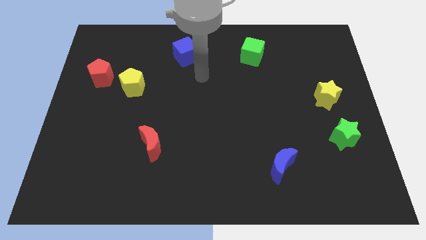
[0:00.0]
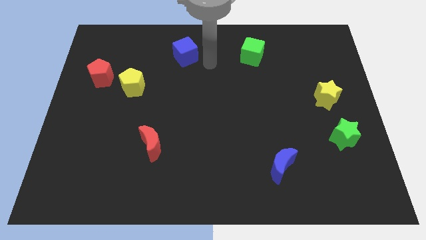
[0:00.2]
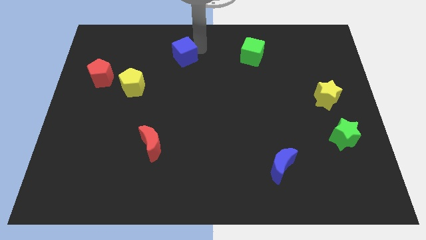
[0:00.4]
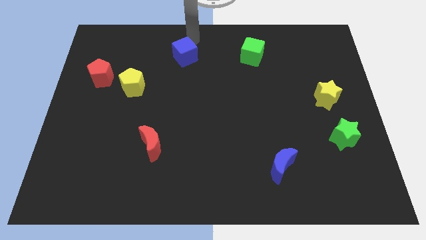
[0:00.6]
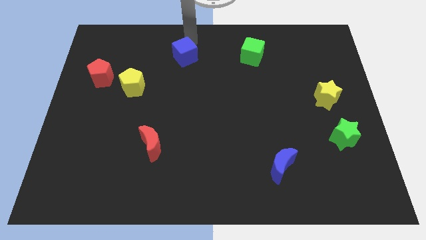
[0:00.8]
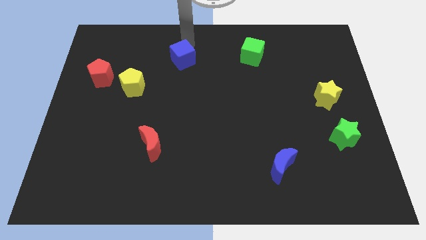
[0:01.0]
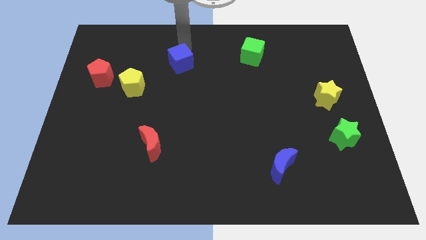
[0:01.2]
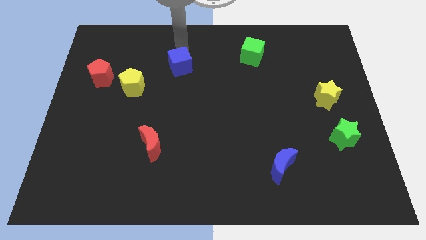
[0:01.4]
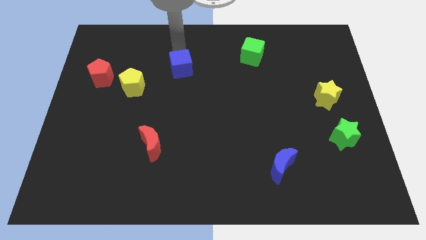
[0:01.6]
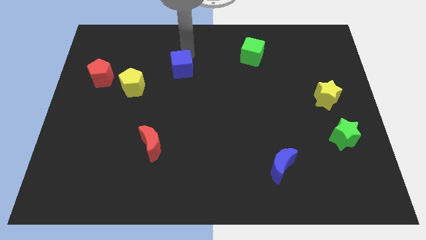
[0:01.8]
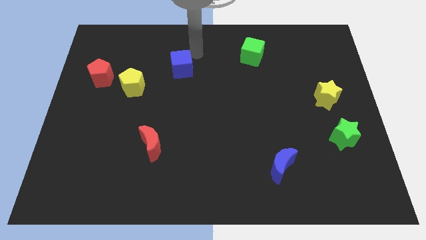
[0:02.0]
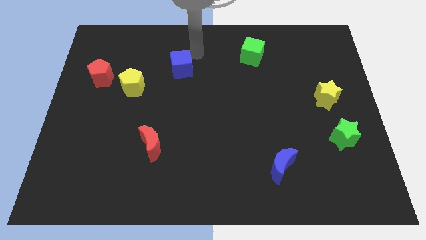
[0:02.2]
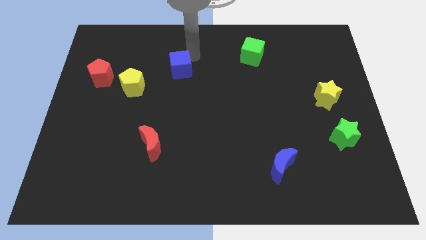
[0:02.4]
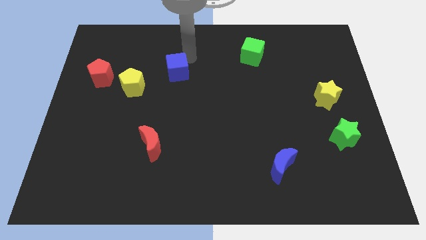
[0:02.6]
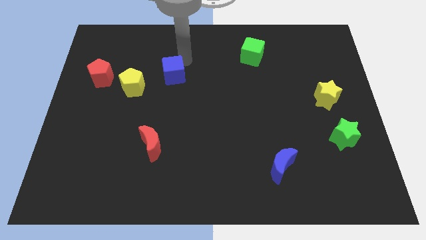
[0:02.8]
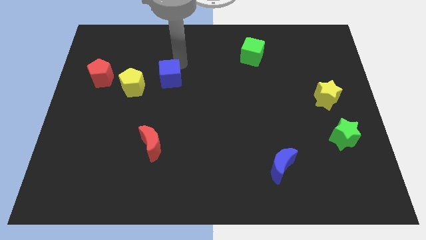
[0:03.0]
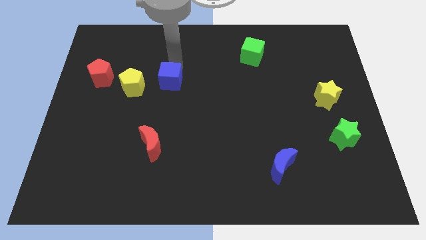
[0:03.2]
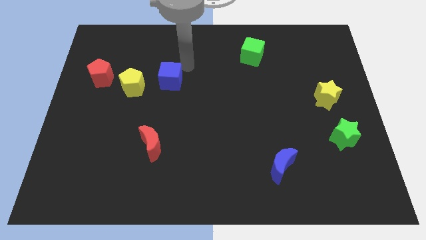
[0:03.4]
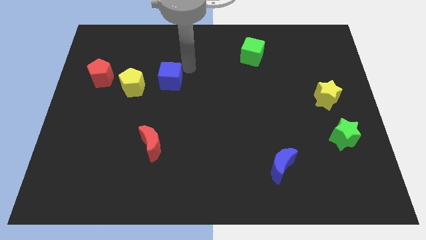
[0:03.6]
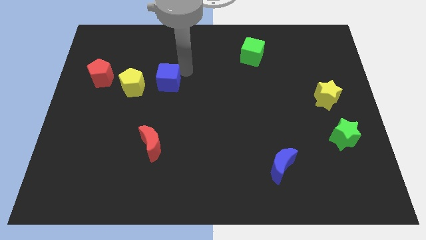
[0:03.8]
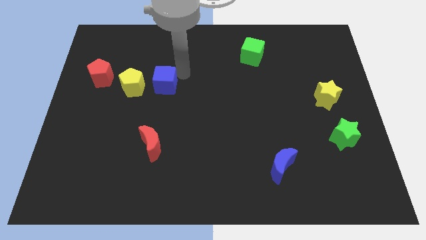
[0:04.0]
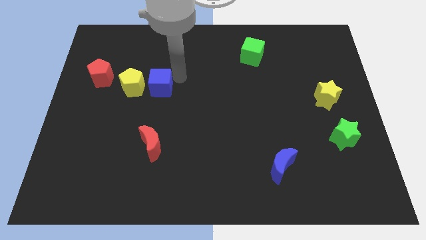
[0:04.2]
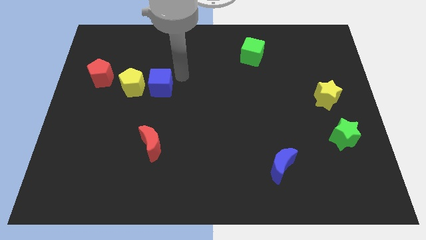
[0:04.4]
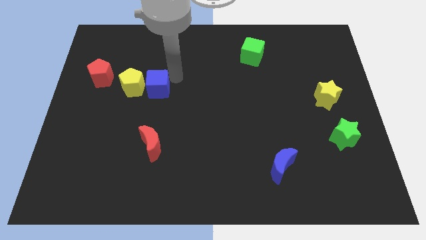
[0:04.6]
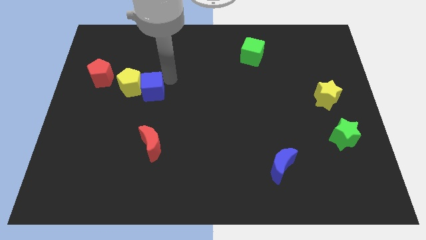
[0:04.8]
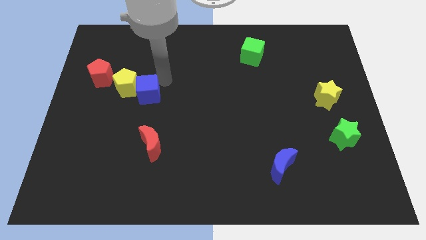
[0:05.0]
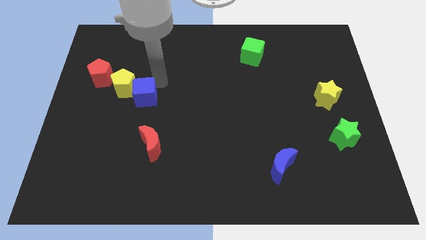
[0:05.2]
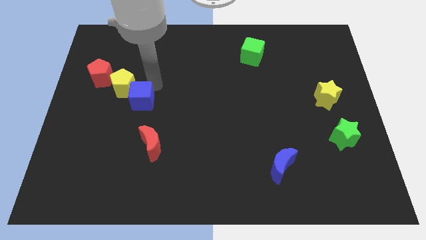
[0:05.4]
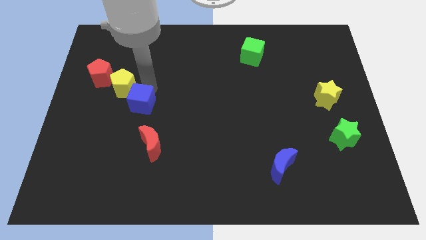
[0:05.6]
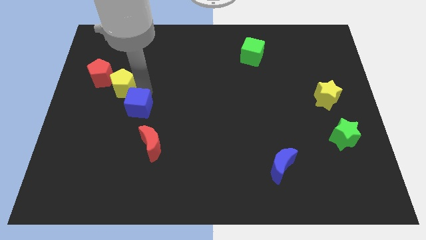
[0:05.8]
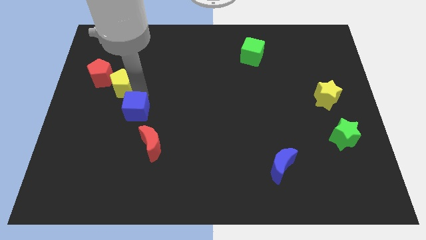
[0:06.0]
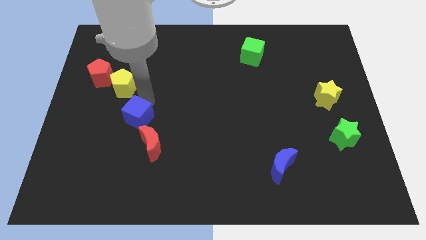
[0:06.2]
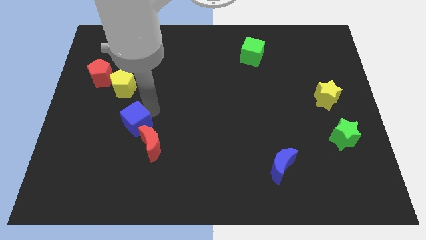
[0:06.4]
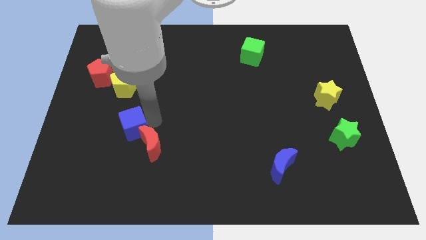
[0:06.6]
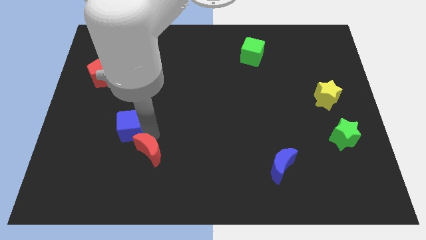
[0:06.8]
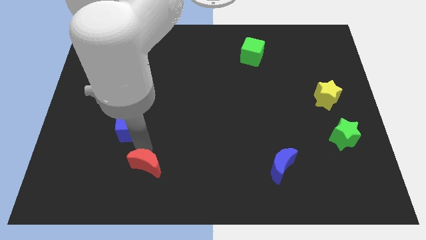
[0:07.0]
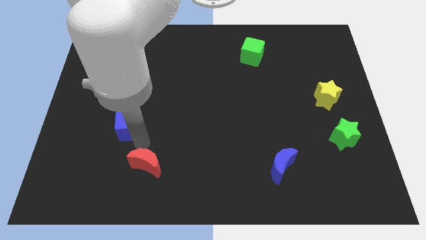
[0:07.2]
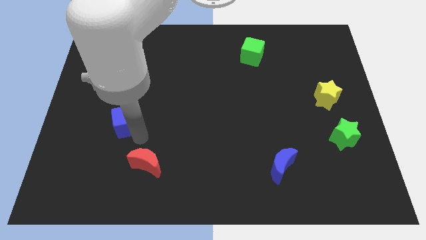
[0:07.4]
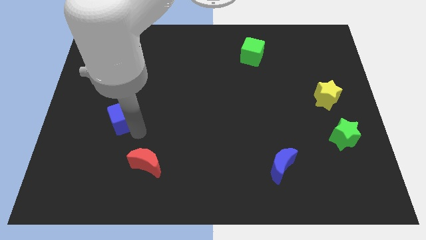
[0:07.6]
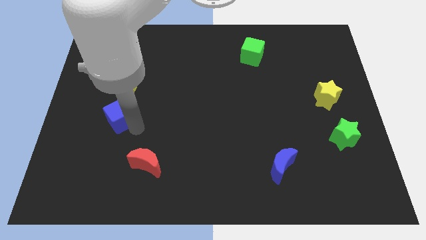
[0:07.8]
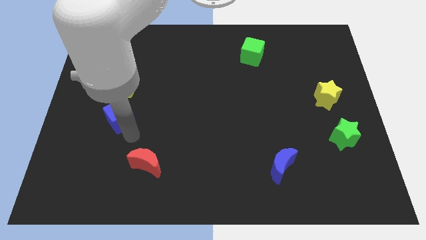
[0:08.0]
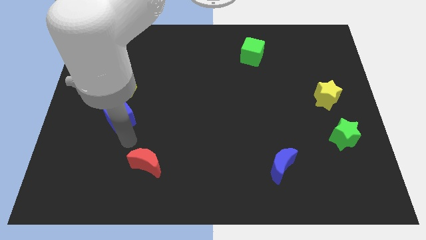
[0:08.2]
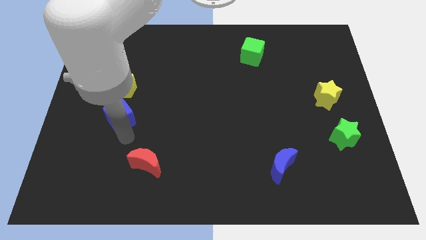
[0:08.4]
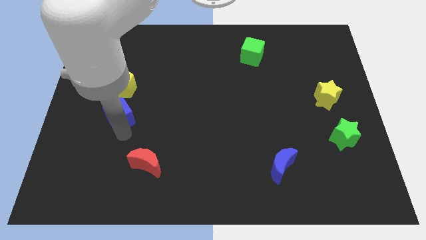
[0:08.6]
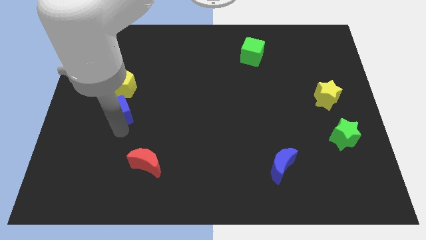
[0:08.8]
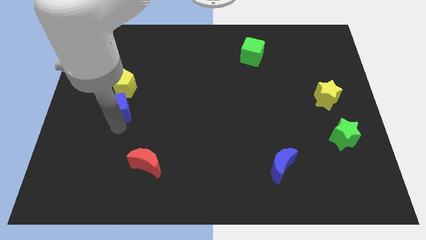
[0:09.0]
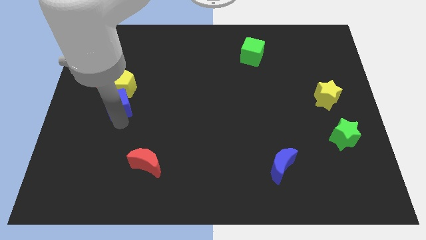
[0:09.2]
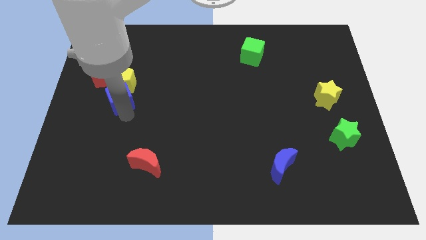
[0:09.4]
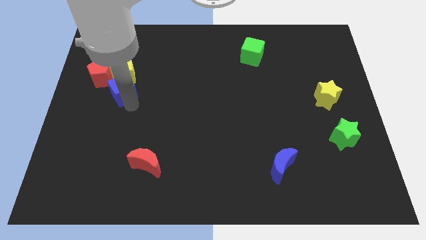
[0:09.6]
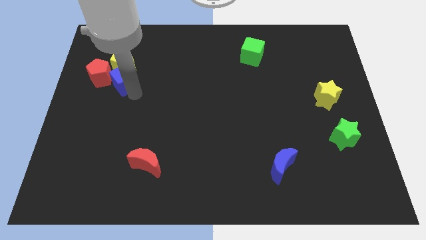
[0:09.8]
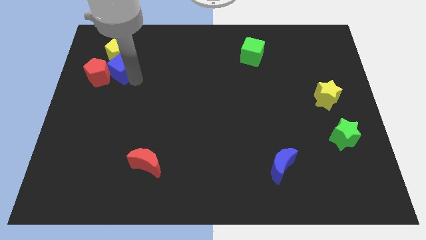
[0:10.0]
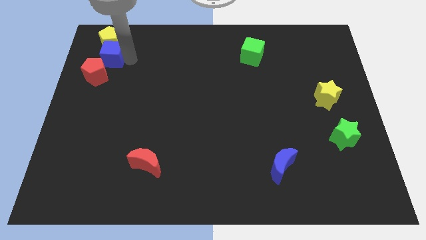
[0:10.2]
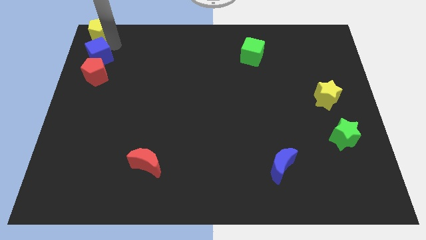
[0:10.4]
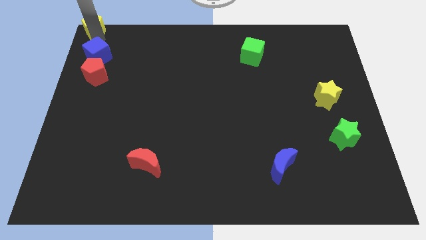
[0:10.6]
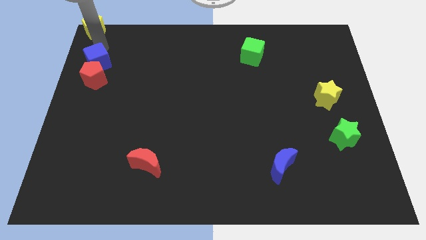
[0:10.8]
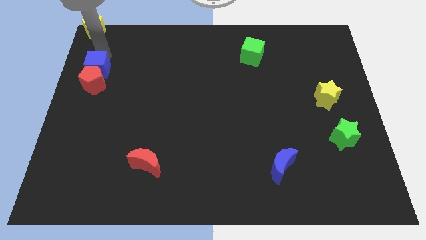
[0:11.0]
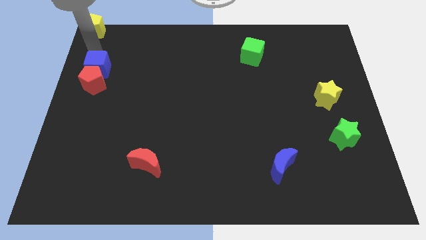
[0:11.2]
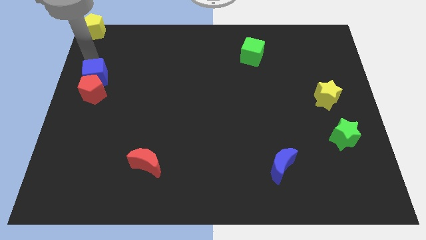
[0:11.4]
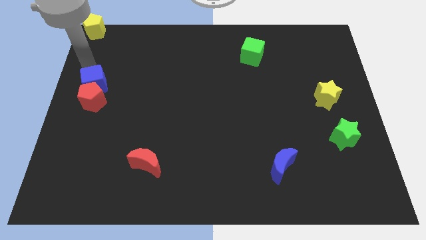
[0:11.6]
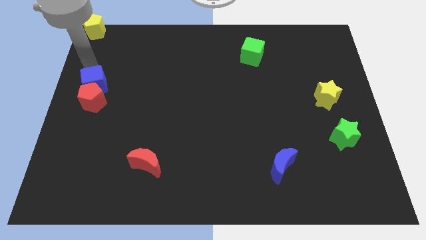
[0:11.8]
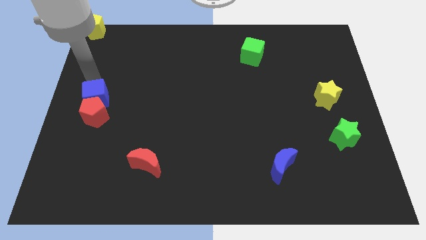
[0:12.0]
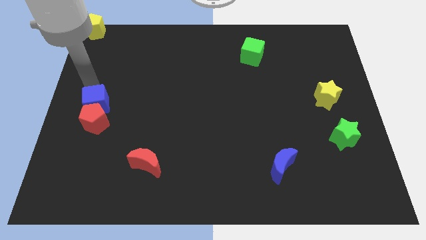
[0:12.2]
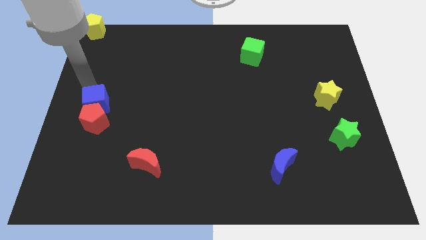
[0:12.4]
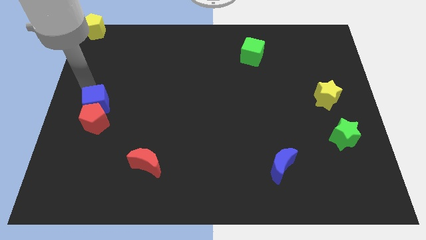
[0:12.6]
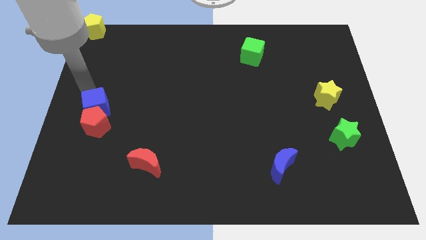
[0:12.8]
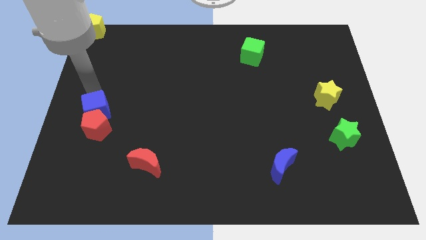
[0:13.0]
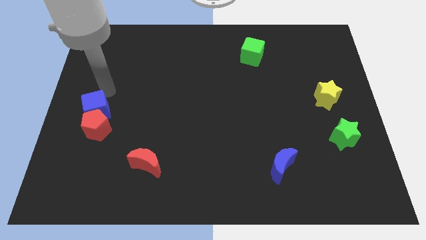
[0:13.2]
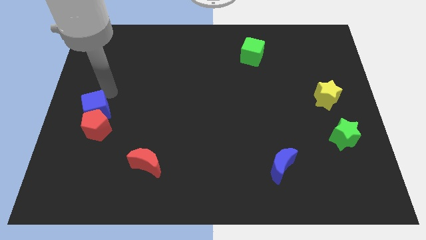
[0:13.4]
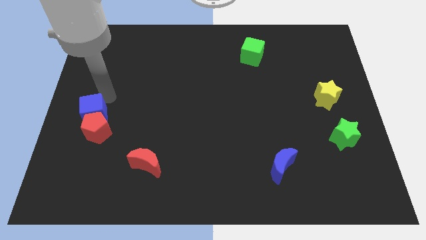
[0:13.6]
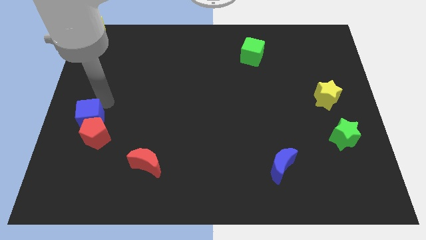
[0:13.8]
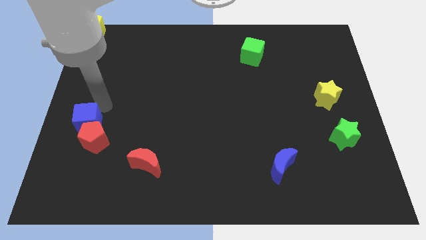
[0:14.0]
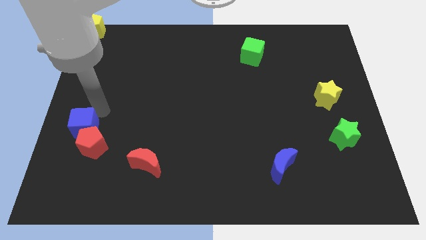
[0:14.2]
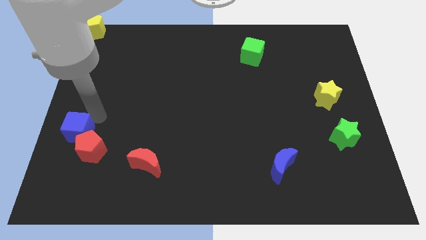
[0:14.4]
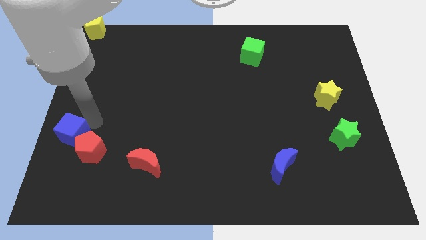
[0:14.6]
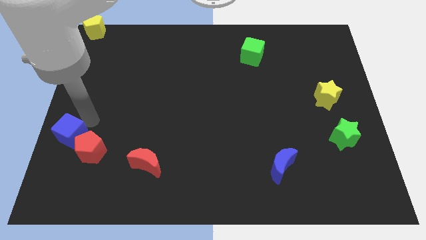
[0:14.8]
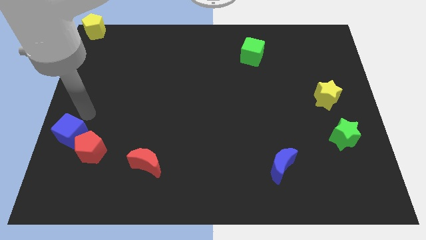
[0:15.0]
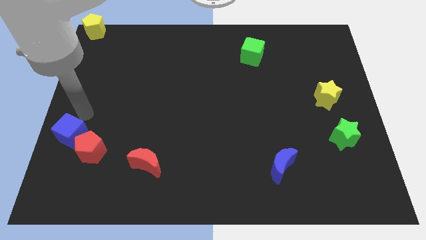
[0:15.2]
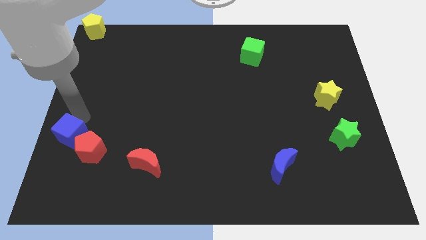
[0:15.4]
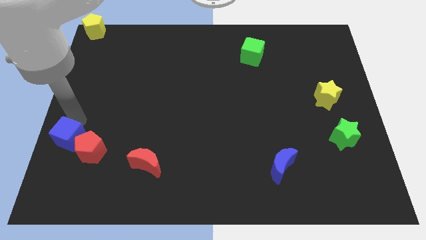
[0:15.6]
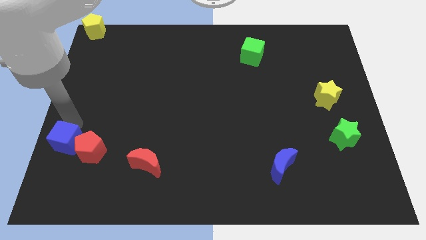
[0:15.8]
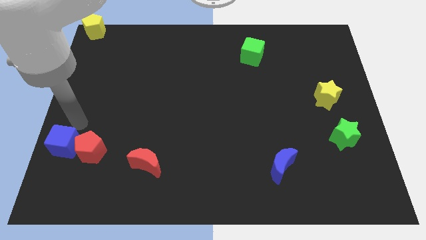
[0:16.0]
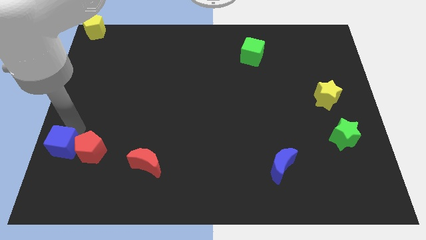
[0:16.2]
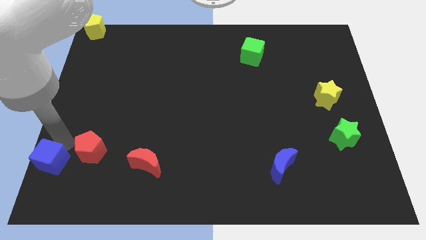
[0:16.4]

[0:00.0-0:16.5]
push the blue cube to the lower left corner
